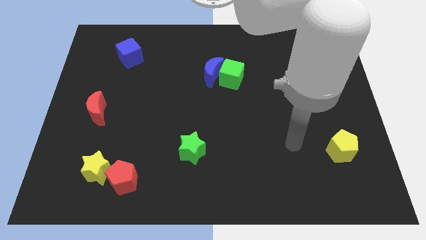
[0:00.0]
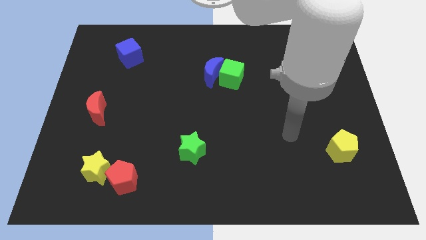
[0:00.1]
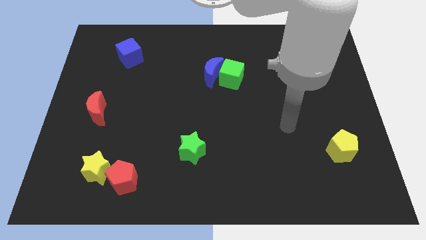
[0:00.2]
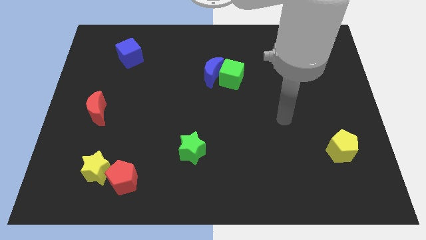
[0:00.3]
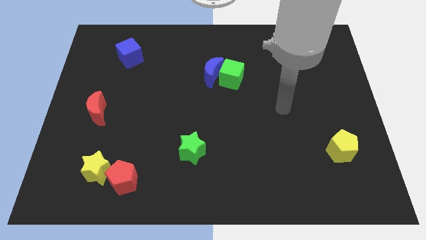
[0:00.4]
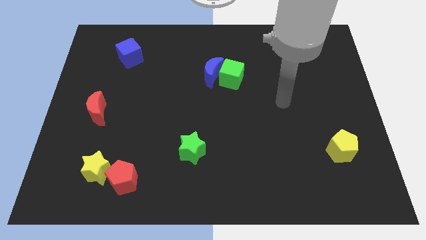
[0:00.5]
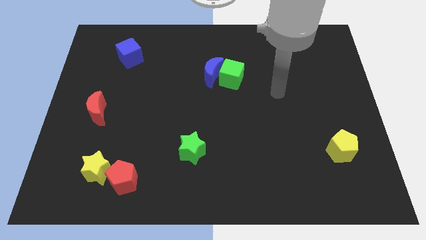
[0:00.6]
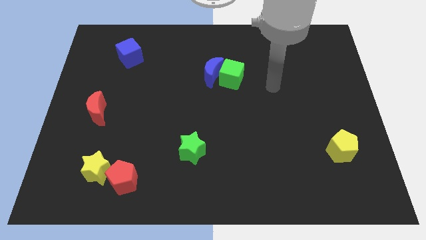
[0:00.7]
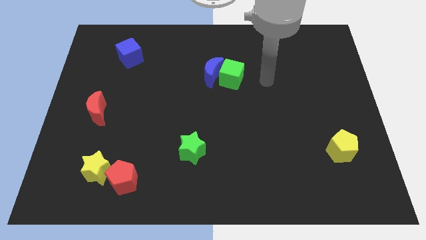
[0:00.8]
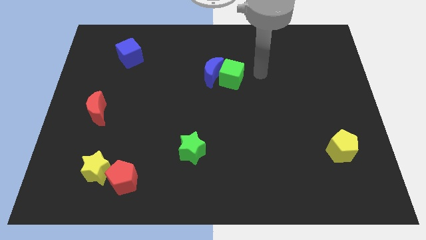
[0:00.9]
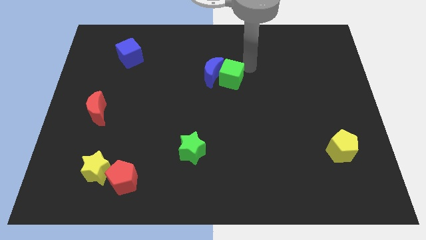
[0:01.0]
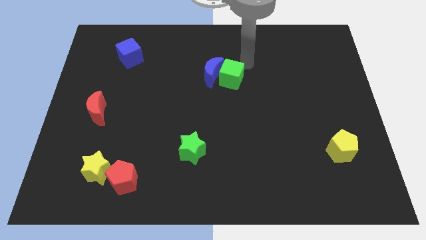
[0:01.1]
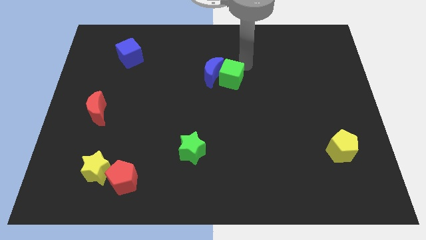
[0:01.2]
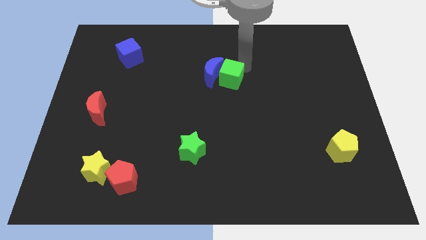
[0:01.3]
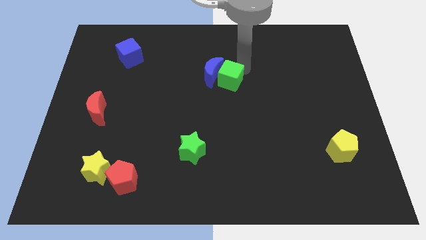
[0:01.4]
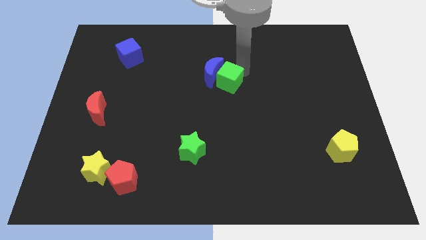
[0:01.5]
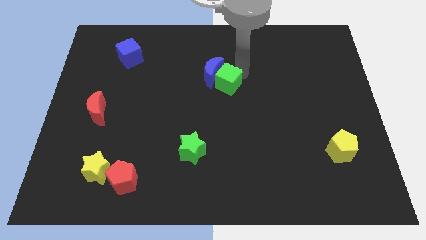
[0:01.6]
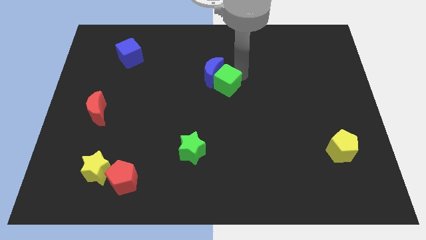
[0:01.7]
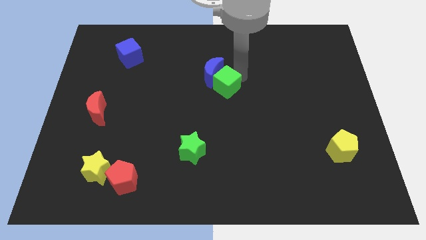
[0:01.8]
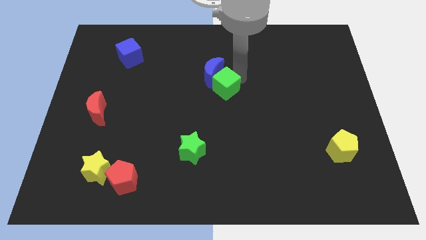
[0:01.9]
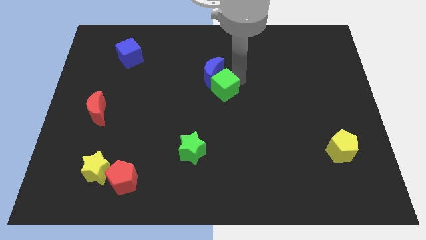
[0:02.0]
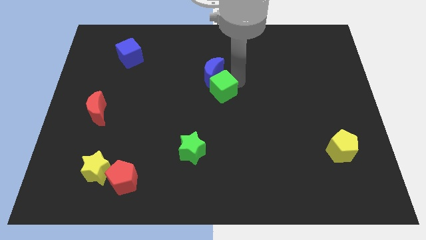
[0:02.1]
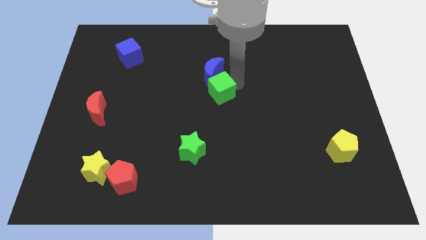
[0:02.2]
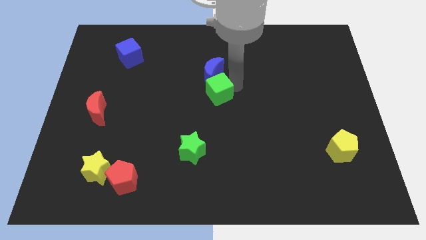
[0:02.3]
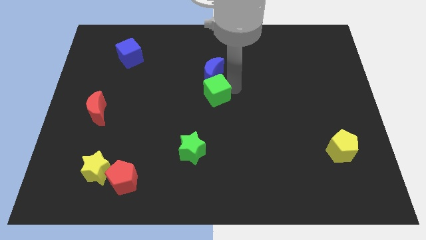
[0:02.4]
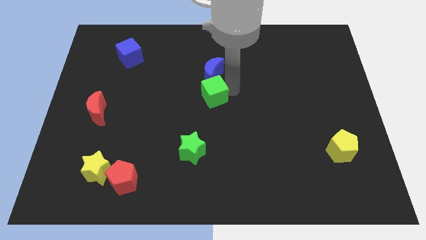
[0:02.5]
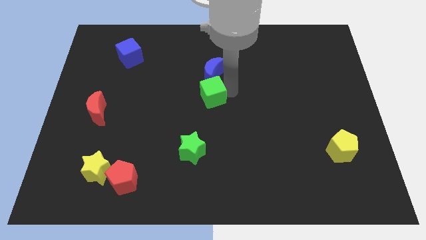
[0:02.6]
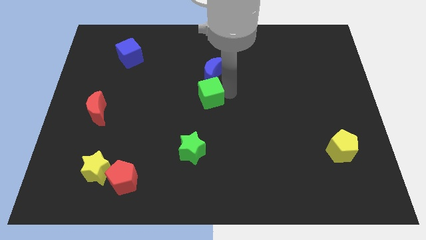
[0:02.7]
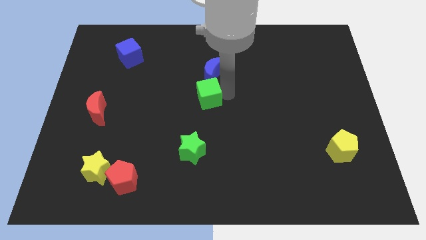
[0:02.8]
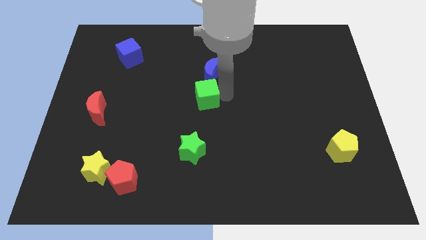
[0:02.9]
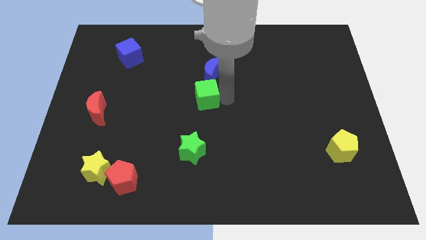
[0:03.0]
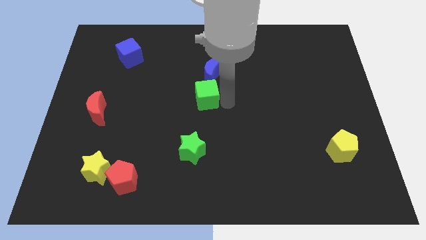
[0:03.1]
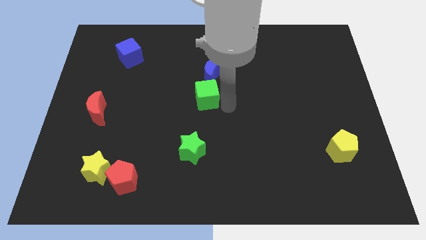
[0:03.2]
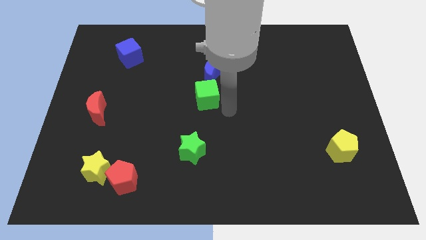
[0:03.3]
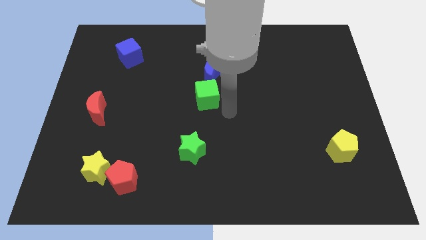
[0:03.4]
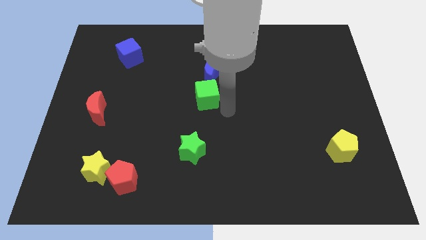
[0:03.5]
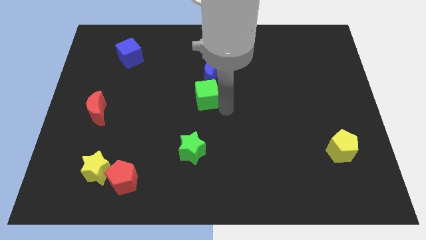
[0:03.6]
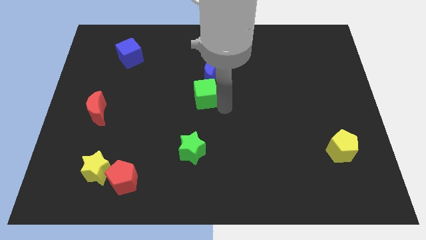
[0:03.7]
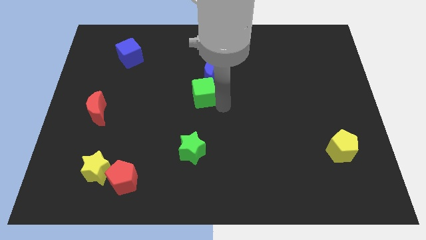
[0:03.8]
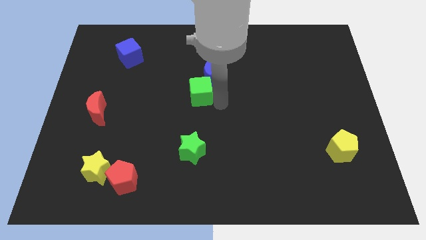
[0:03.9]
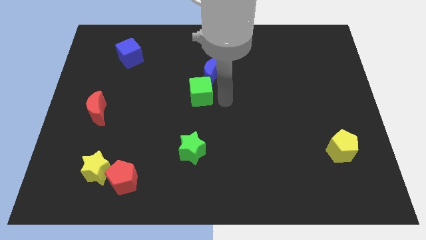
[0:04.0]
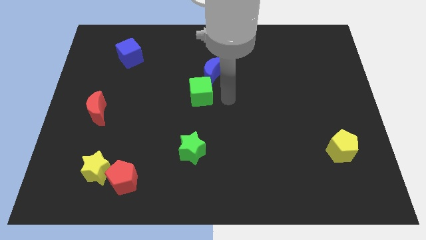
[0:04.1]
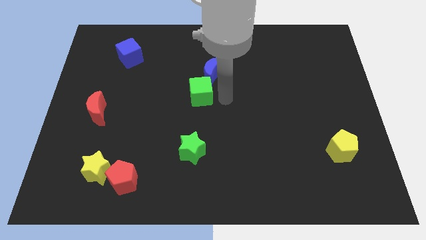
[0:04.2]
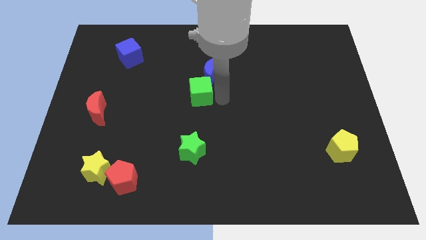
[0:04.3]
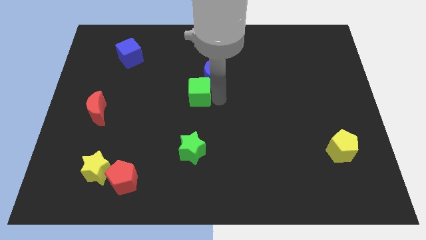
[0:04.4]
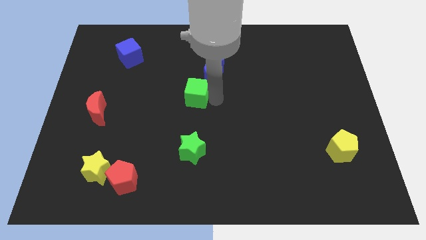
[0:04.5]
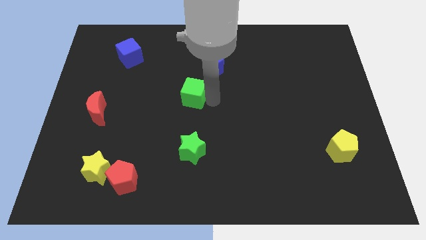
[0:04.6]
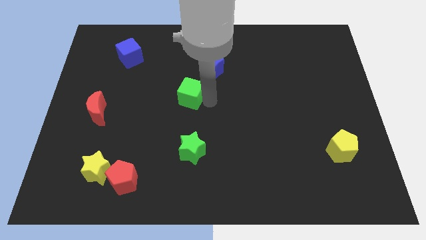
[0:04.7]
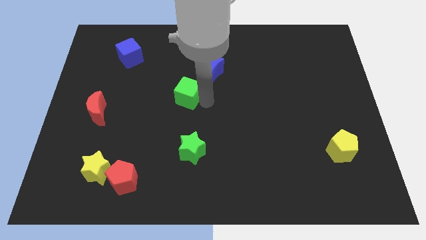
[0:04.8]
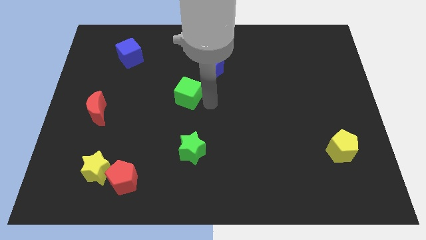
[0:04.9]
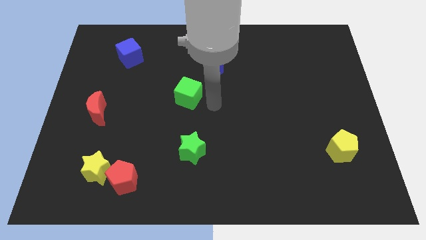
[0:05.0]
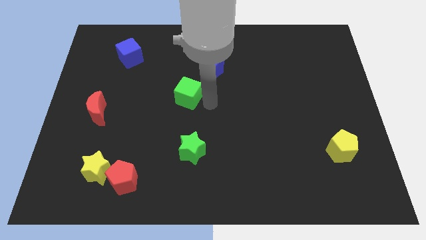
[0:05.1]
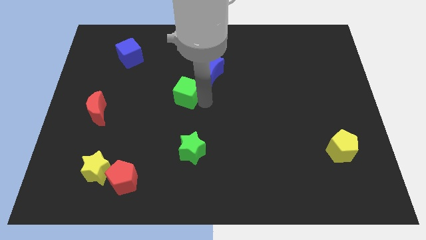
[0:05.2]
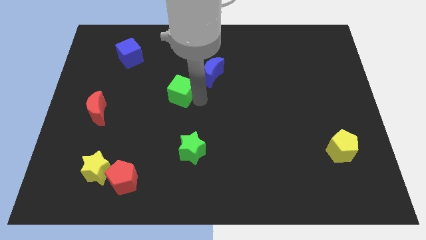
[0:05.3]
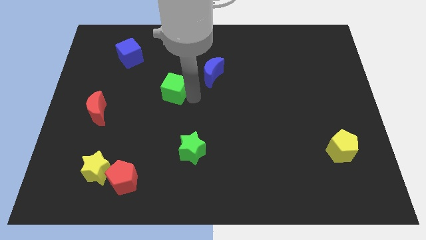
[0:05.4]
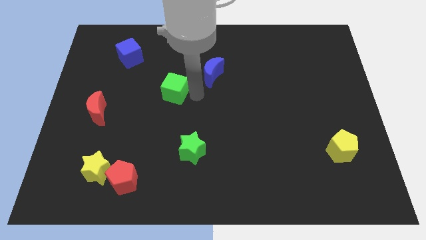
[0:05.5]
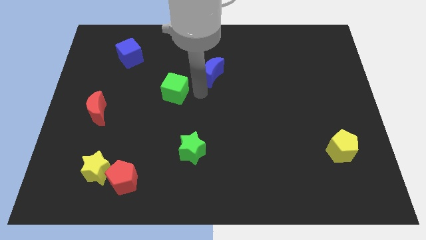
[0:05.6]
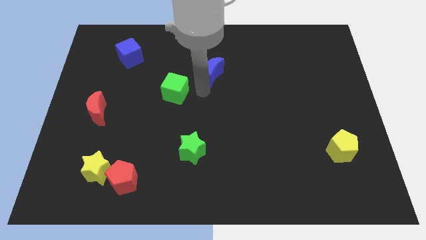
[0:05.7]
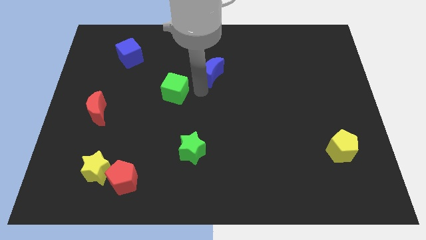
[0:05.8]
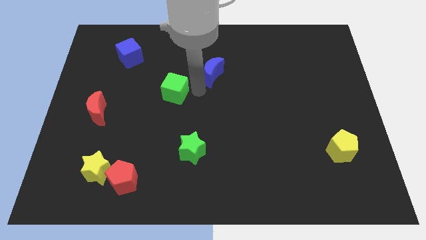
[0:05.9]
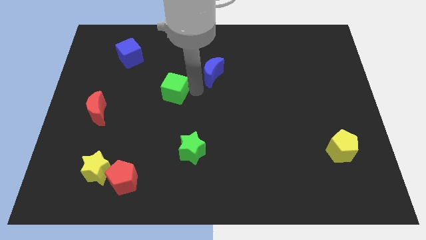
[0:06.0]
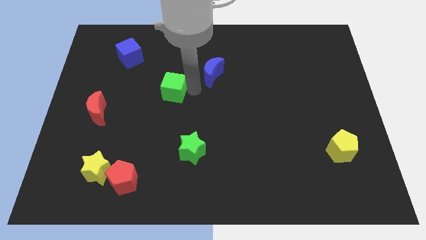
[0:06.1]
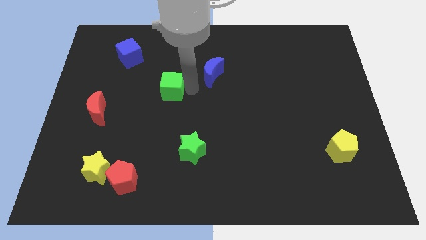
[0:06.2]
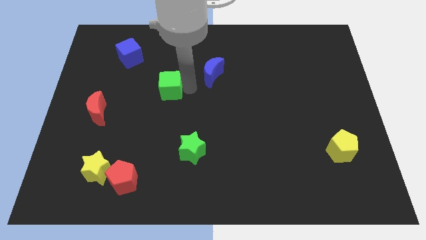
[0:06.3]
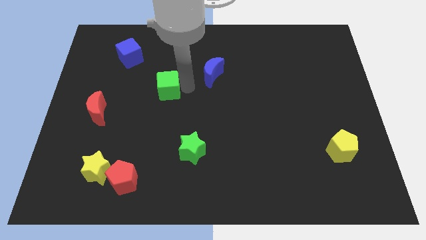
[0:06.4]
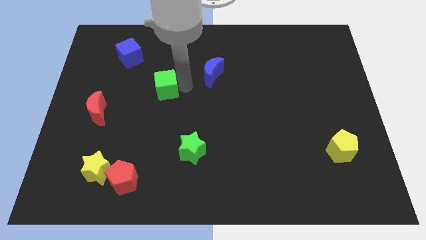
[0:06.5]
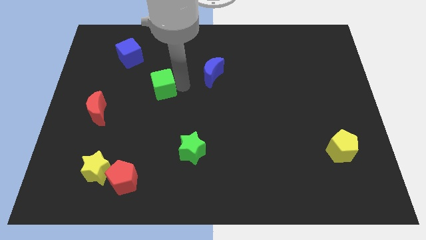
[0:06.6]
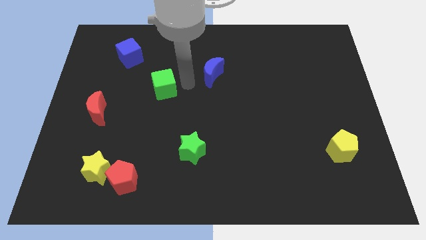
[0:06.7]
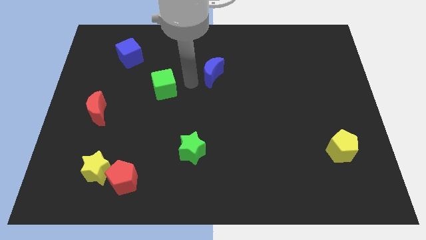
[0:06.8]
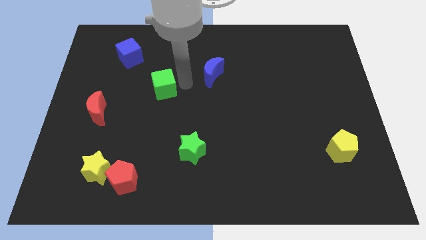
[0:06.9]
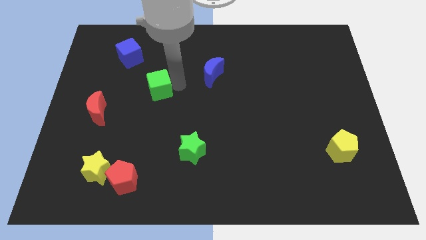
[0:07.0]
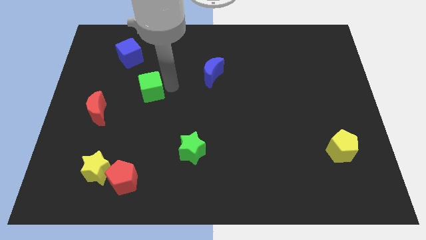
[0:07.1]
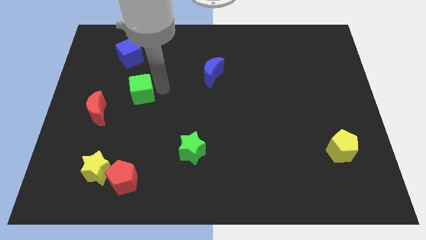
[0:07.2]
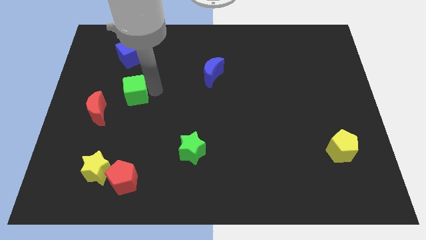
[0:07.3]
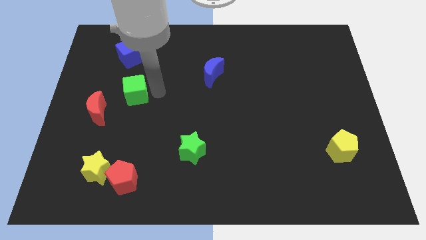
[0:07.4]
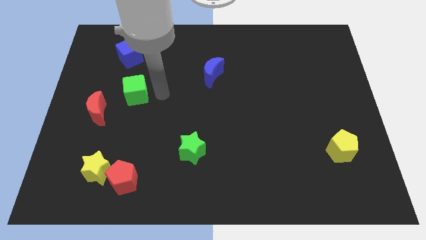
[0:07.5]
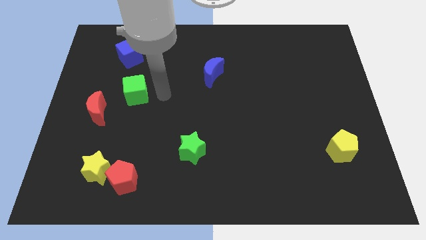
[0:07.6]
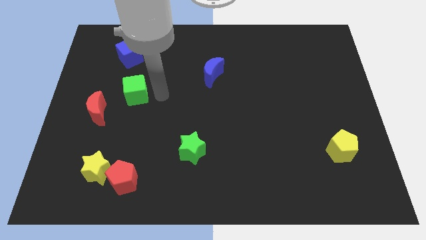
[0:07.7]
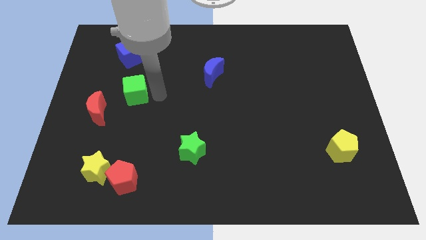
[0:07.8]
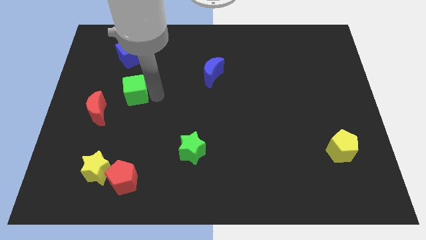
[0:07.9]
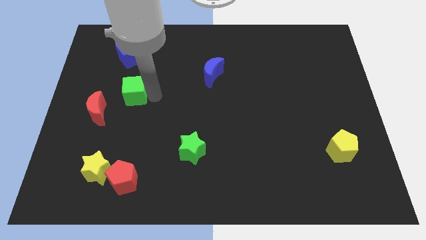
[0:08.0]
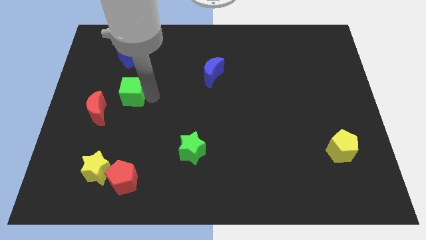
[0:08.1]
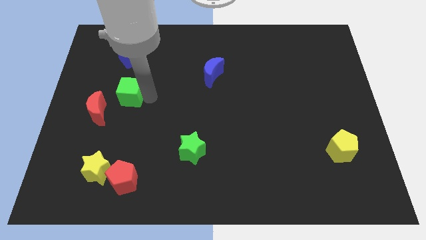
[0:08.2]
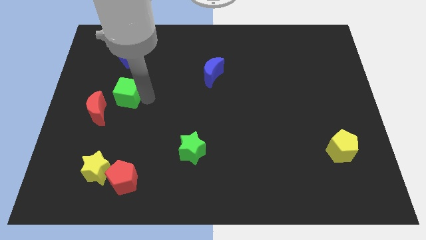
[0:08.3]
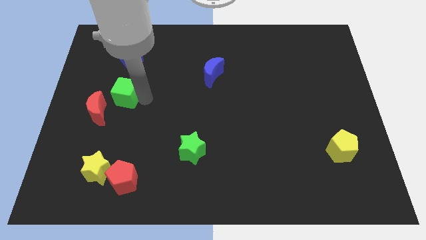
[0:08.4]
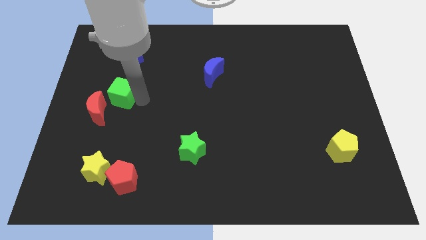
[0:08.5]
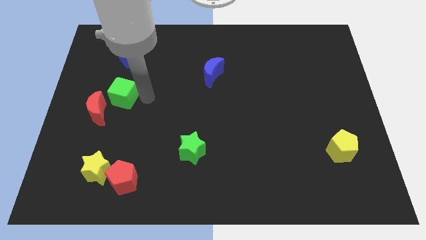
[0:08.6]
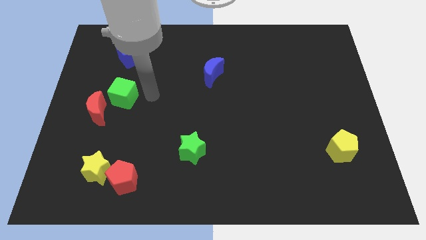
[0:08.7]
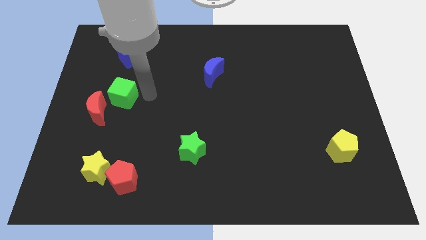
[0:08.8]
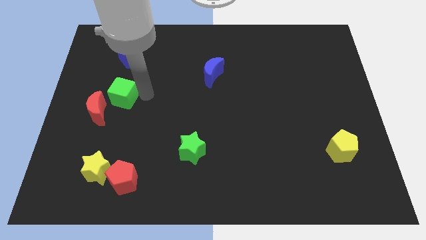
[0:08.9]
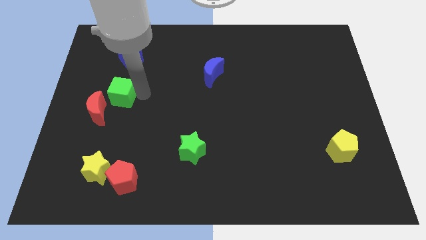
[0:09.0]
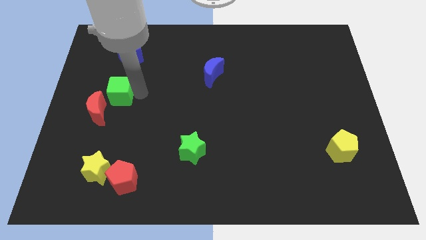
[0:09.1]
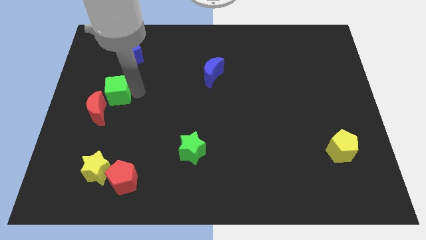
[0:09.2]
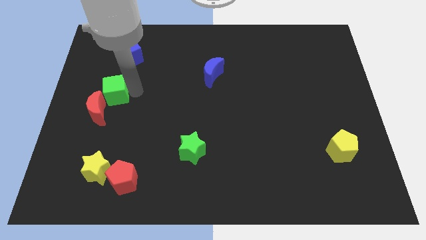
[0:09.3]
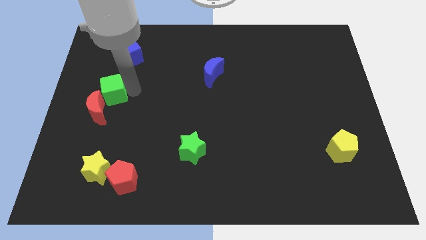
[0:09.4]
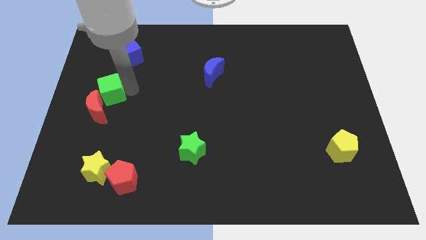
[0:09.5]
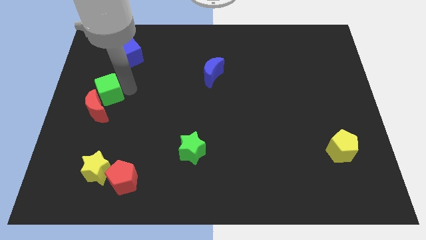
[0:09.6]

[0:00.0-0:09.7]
put the green cube to the left side
